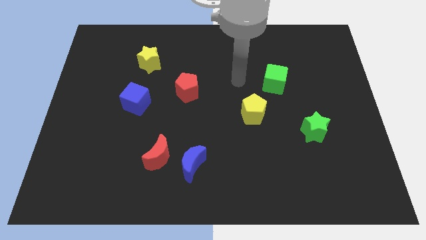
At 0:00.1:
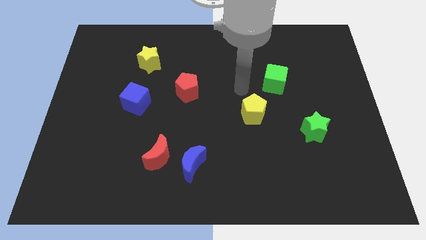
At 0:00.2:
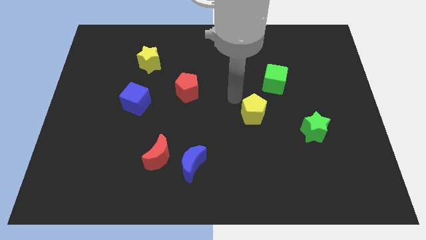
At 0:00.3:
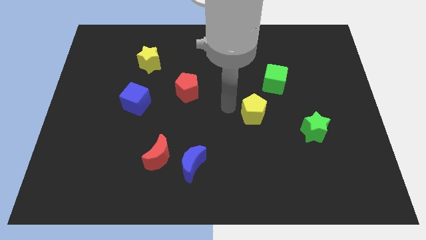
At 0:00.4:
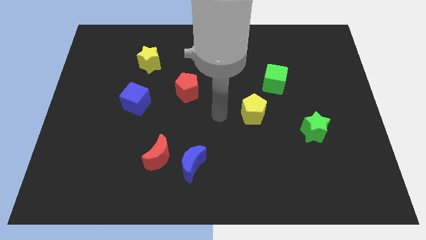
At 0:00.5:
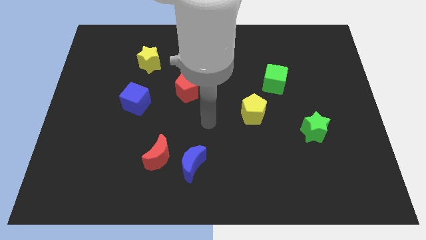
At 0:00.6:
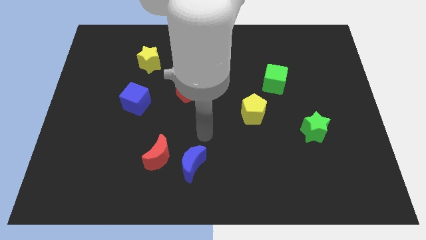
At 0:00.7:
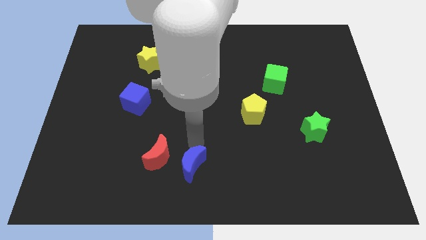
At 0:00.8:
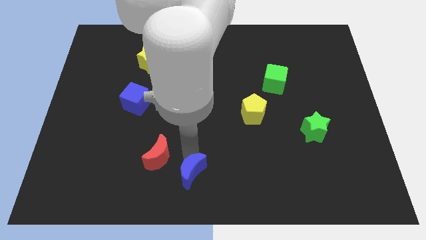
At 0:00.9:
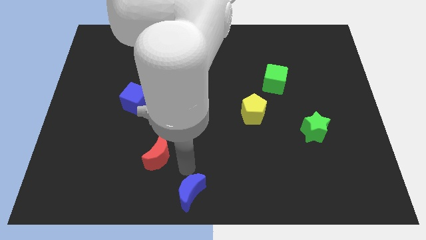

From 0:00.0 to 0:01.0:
move the red moon away from the blue moon

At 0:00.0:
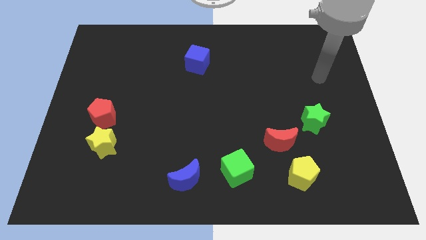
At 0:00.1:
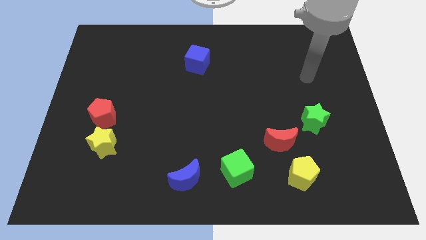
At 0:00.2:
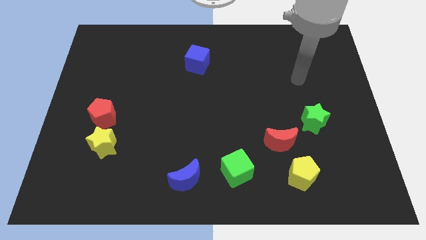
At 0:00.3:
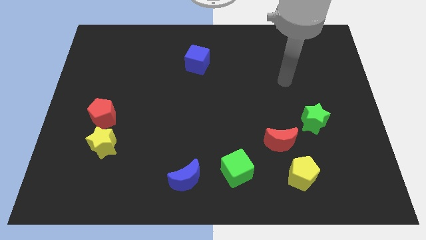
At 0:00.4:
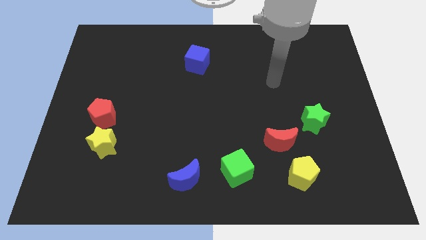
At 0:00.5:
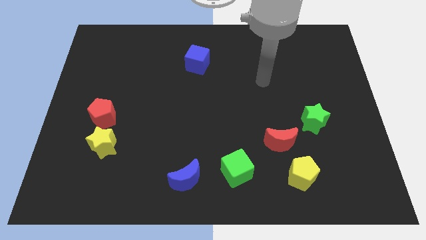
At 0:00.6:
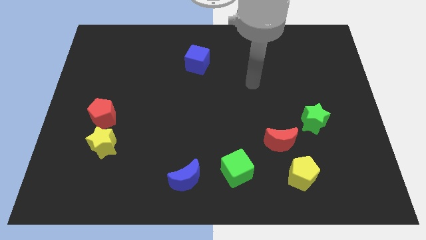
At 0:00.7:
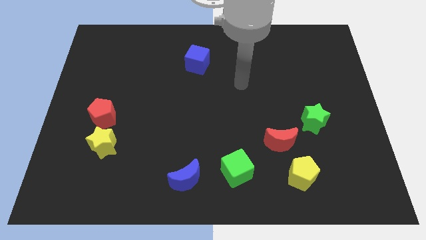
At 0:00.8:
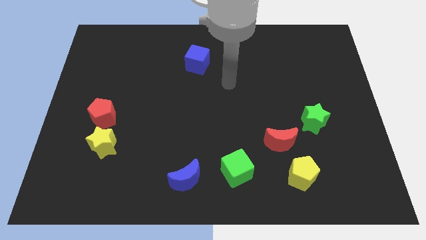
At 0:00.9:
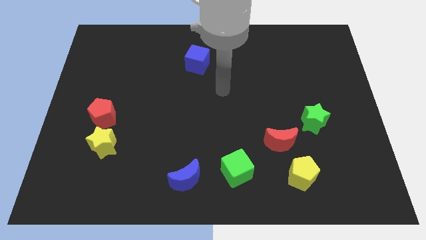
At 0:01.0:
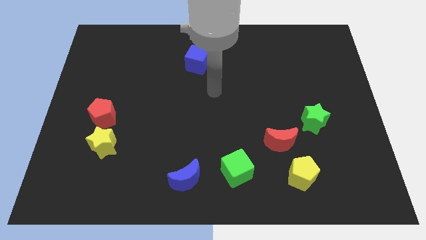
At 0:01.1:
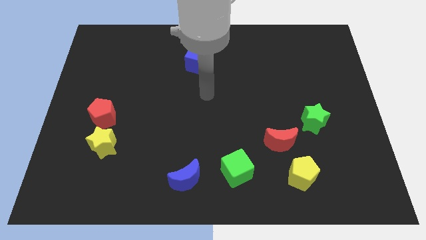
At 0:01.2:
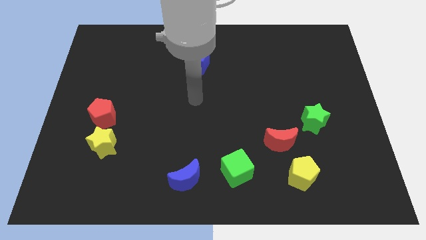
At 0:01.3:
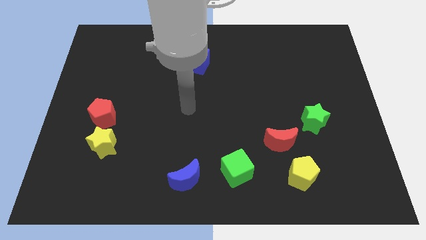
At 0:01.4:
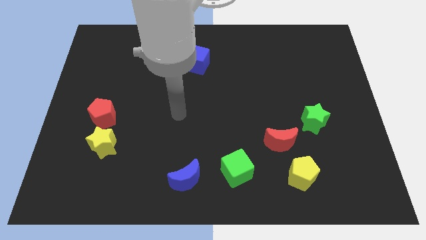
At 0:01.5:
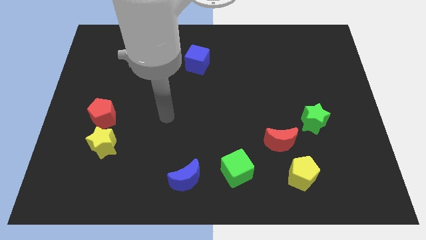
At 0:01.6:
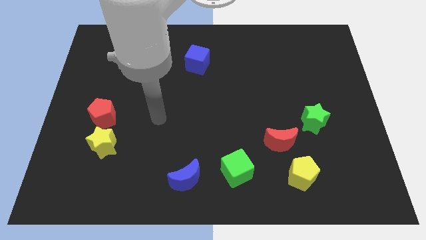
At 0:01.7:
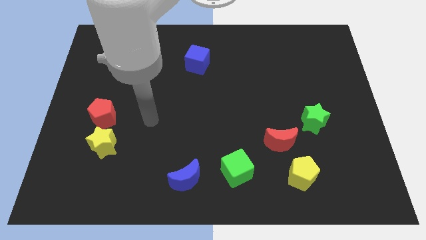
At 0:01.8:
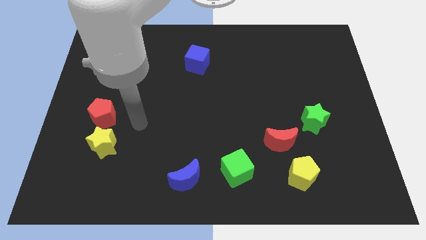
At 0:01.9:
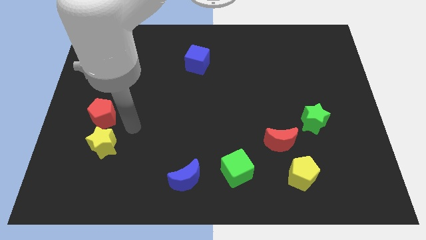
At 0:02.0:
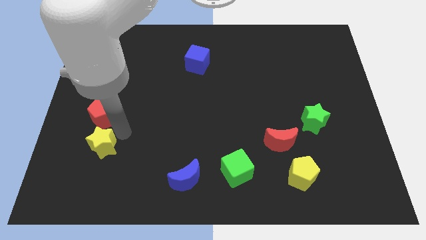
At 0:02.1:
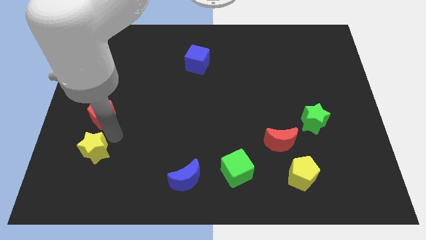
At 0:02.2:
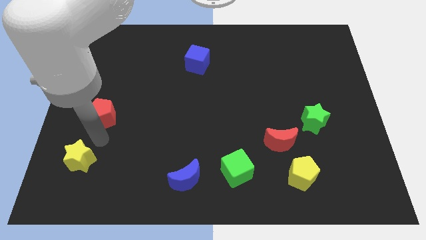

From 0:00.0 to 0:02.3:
move the red pentagon away from the yellow star

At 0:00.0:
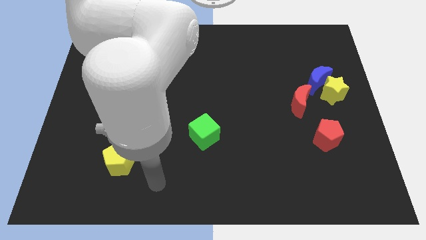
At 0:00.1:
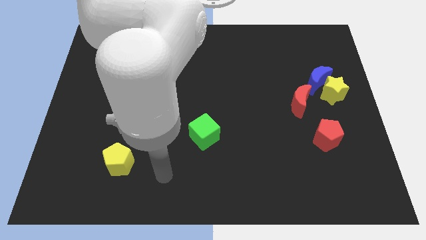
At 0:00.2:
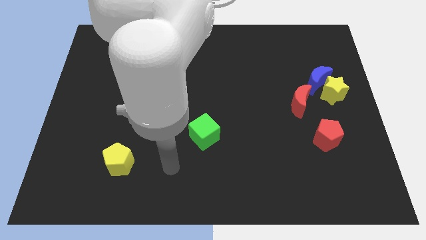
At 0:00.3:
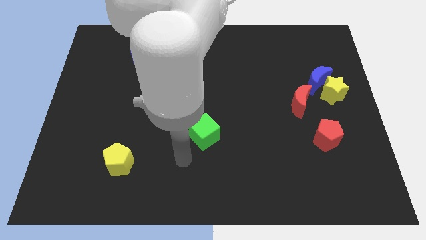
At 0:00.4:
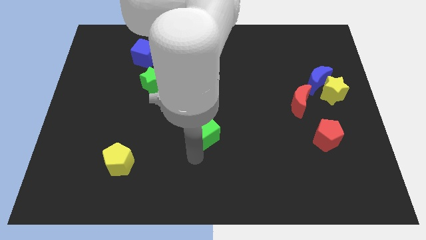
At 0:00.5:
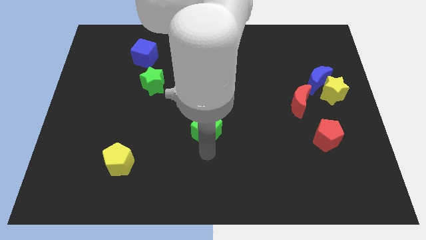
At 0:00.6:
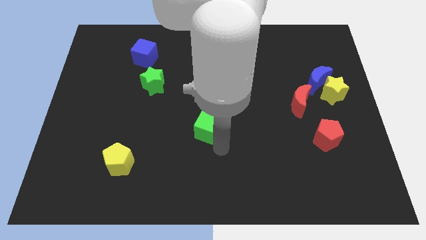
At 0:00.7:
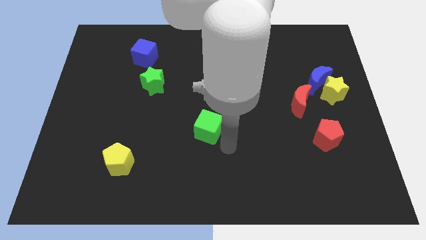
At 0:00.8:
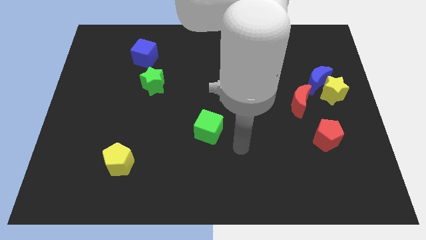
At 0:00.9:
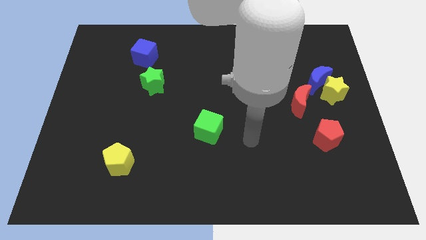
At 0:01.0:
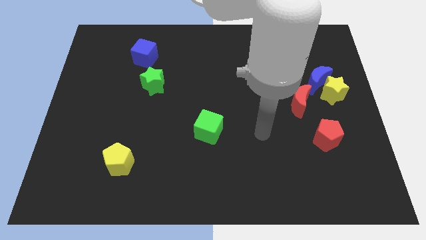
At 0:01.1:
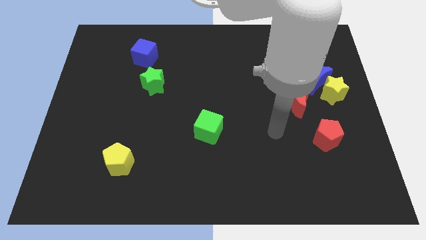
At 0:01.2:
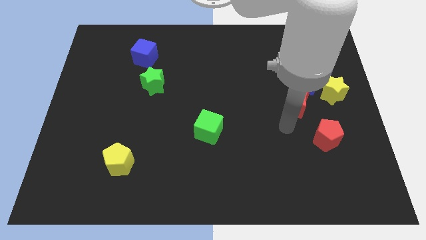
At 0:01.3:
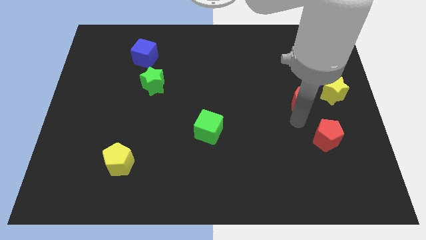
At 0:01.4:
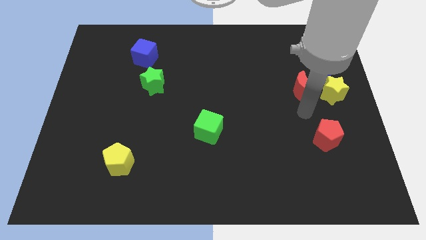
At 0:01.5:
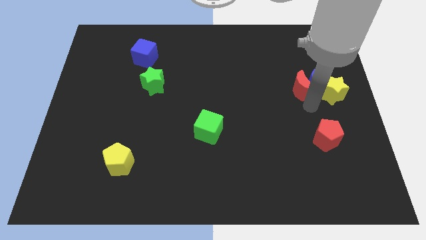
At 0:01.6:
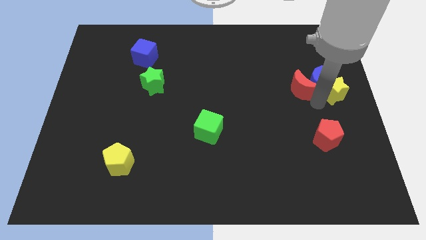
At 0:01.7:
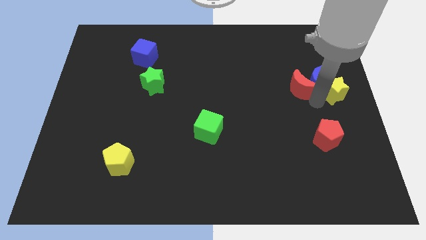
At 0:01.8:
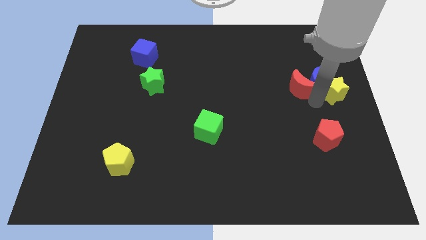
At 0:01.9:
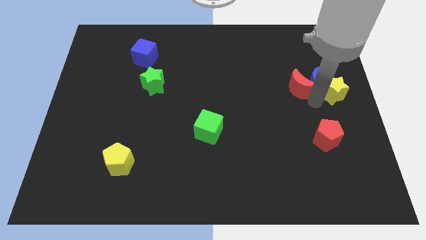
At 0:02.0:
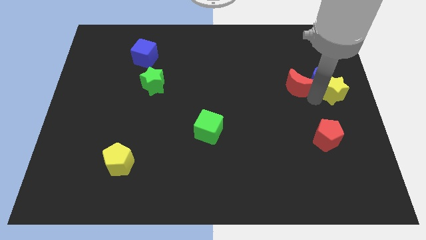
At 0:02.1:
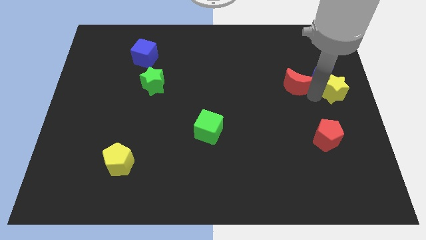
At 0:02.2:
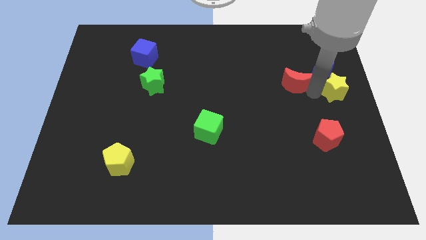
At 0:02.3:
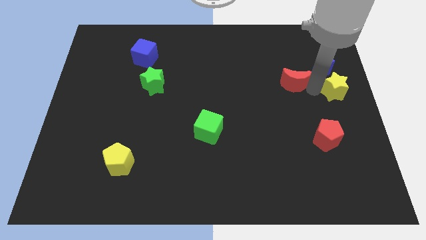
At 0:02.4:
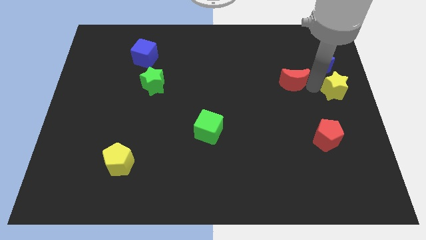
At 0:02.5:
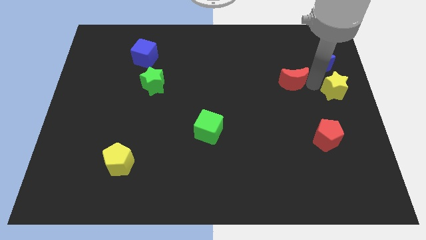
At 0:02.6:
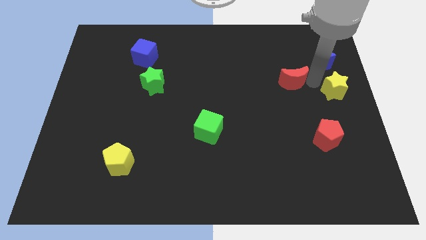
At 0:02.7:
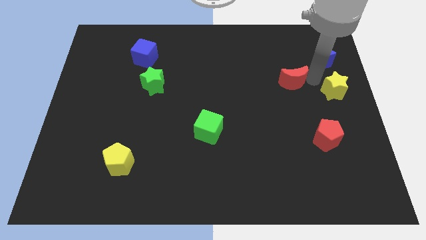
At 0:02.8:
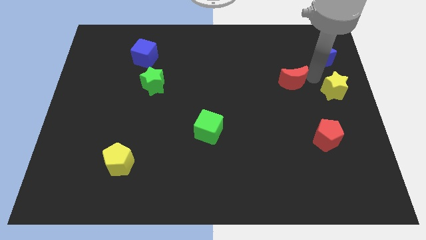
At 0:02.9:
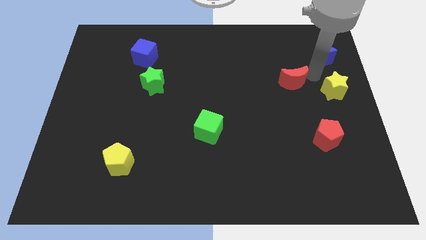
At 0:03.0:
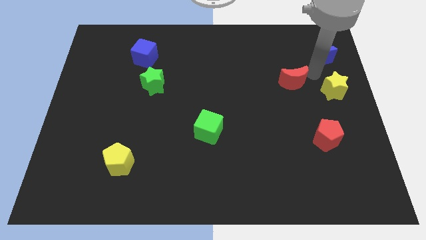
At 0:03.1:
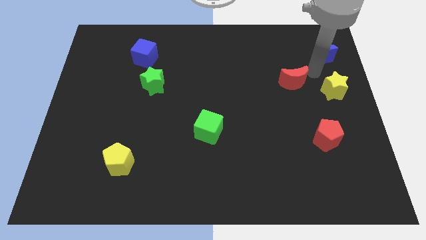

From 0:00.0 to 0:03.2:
move the blue moon away from the yellow star and red moon

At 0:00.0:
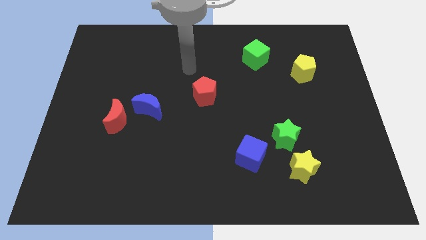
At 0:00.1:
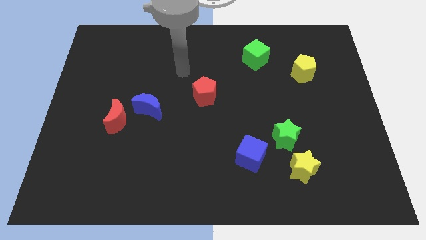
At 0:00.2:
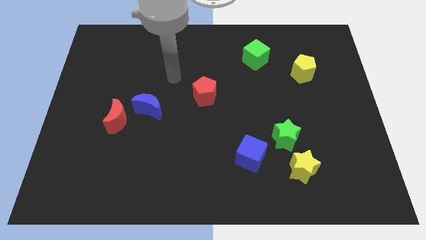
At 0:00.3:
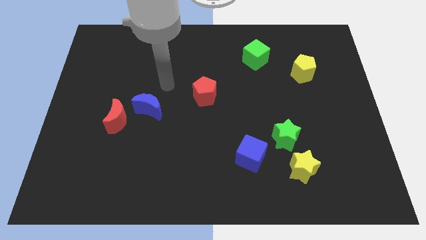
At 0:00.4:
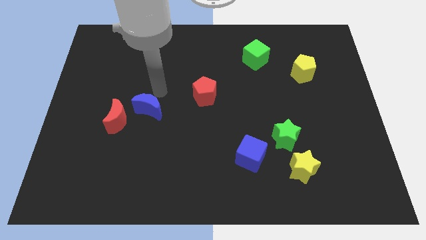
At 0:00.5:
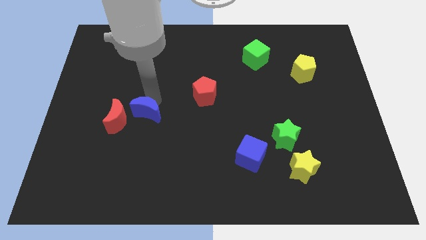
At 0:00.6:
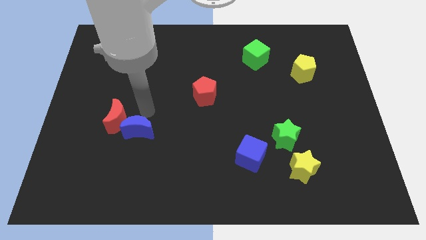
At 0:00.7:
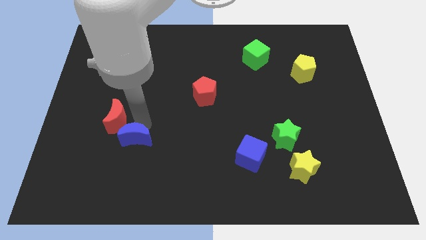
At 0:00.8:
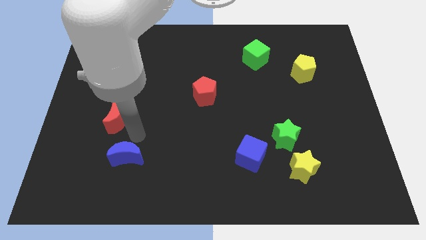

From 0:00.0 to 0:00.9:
separate the red moon from the blue moon

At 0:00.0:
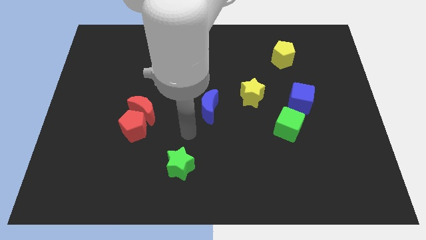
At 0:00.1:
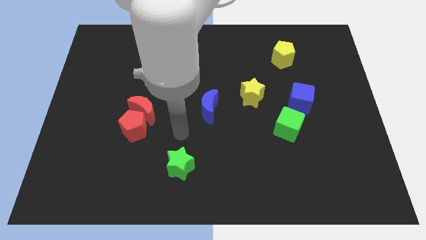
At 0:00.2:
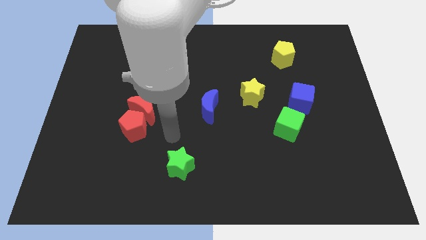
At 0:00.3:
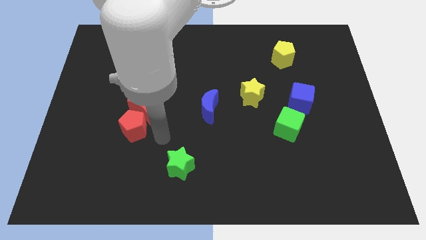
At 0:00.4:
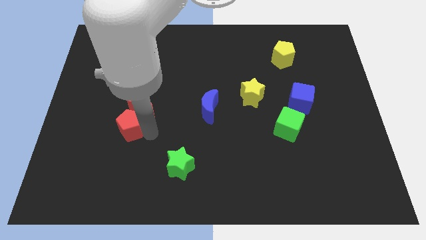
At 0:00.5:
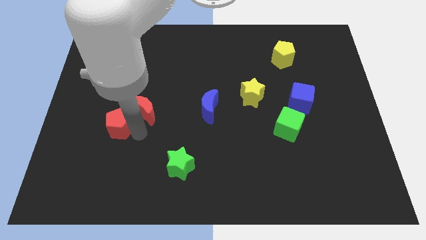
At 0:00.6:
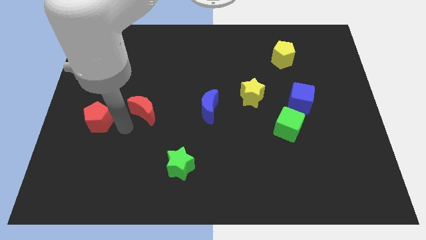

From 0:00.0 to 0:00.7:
pull the red moon apart from the red pentagon

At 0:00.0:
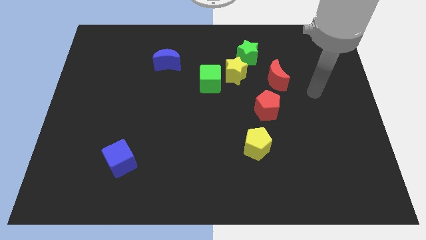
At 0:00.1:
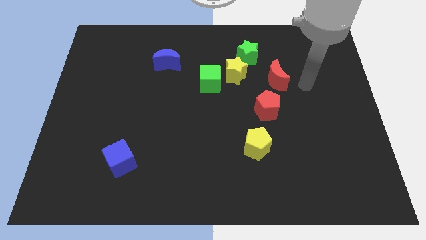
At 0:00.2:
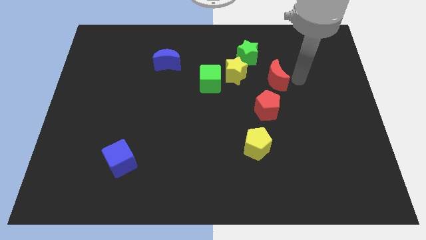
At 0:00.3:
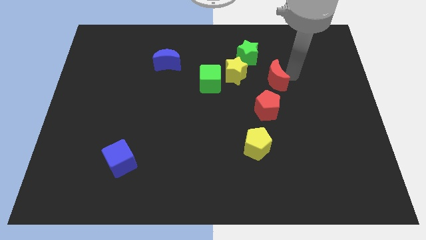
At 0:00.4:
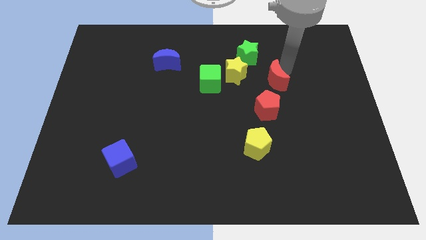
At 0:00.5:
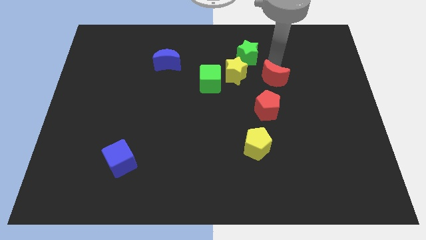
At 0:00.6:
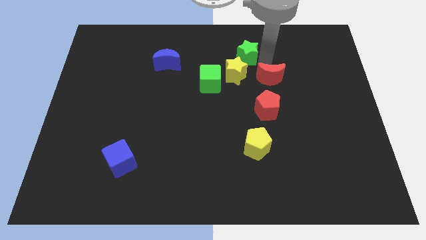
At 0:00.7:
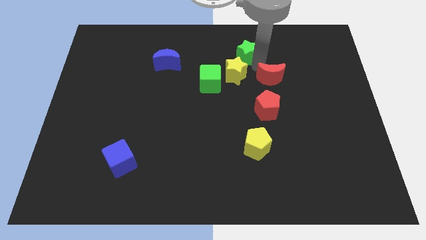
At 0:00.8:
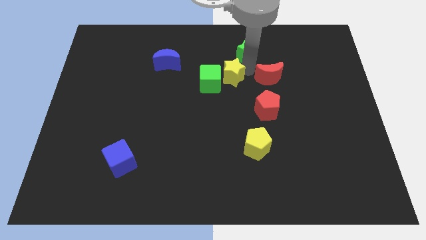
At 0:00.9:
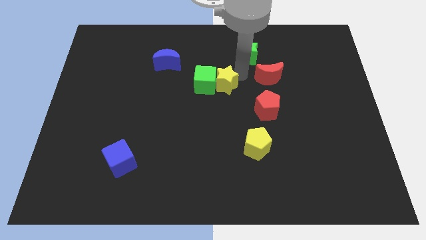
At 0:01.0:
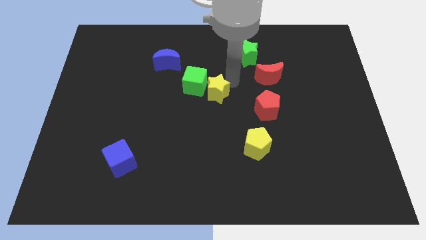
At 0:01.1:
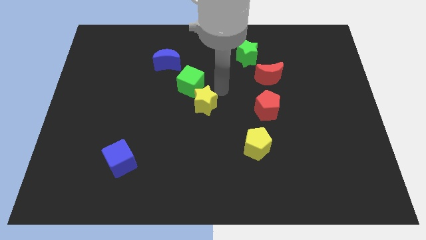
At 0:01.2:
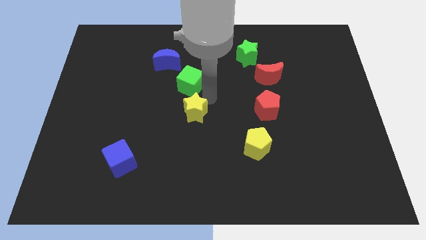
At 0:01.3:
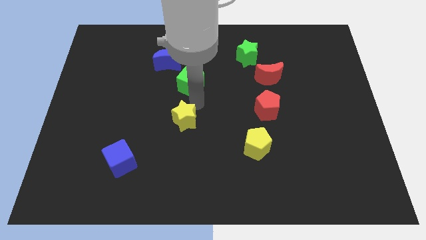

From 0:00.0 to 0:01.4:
move the green cube away from the yellow star
